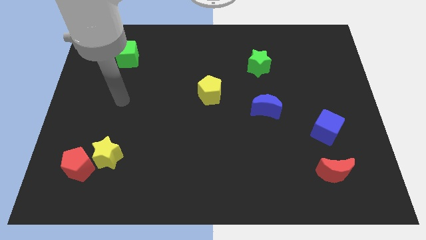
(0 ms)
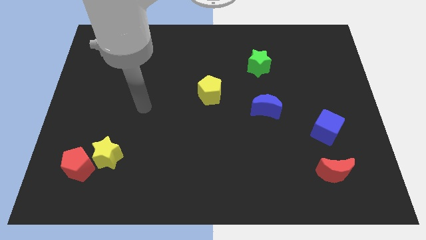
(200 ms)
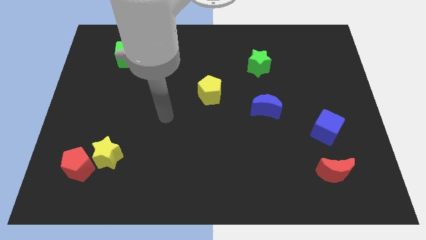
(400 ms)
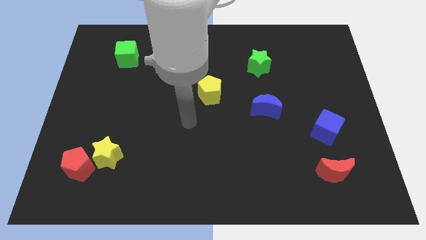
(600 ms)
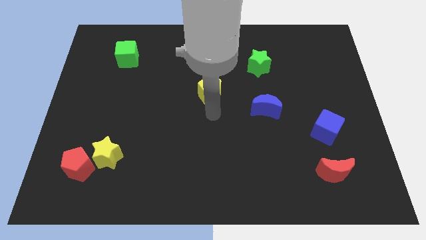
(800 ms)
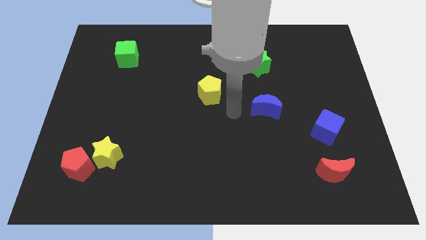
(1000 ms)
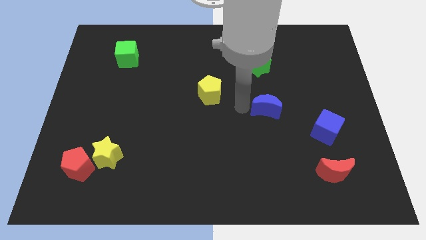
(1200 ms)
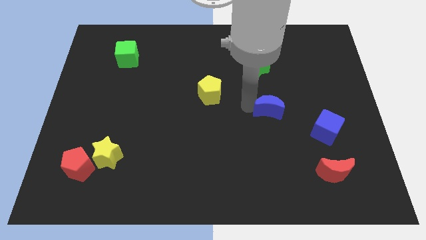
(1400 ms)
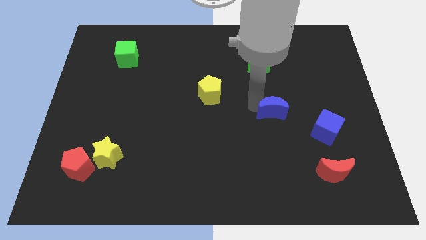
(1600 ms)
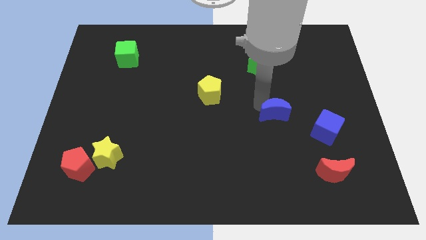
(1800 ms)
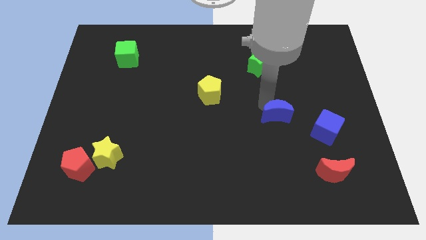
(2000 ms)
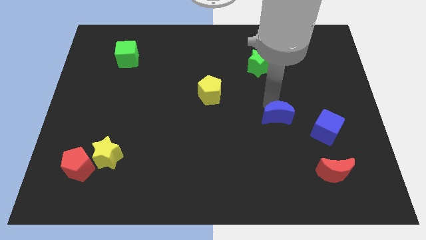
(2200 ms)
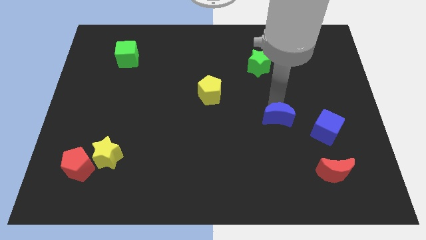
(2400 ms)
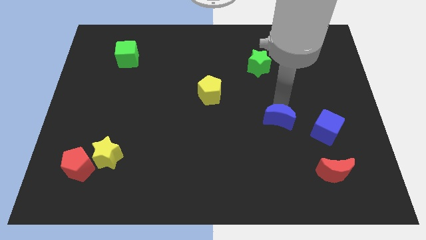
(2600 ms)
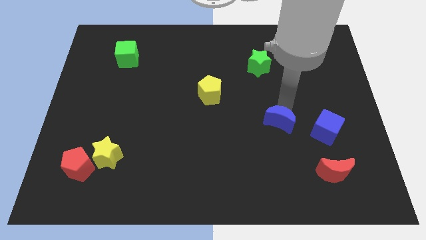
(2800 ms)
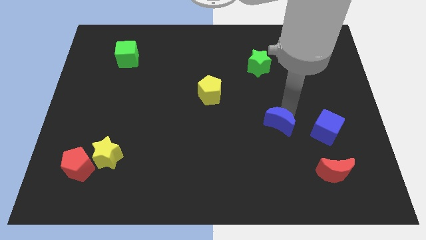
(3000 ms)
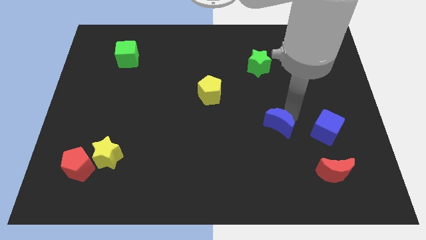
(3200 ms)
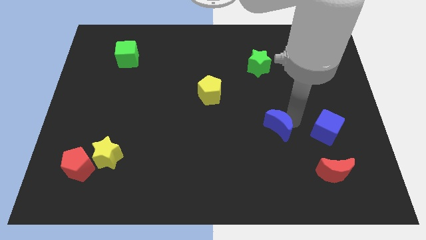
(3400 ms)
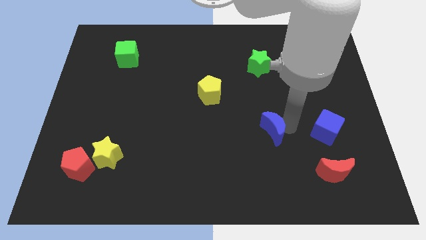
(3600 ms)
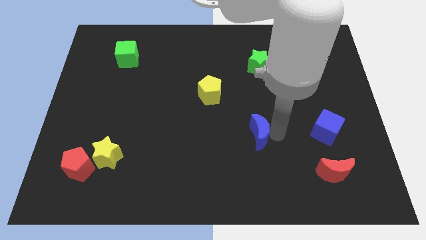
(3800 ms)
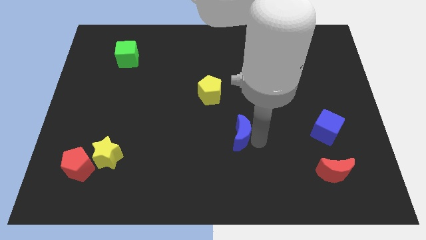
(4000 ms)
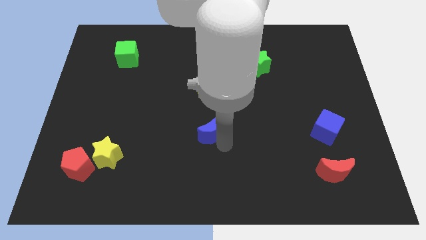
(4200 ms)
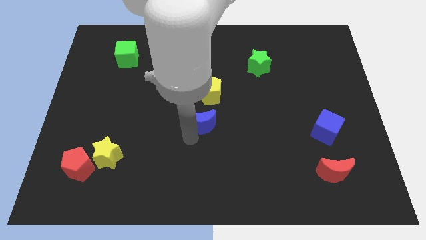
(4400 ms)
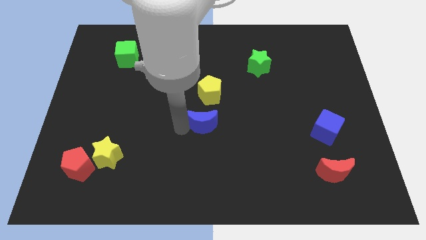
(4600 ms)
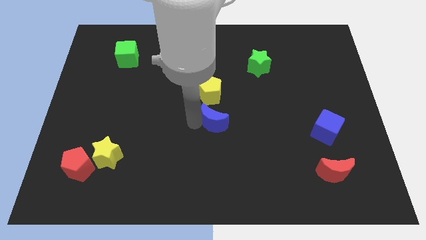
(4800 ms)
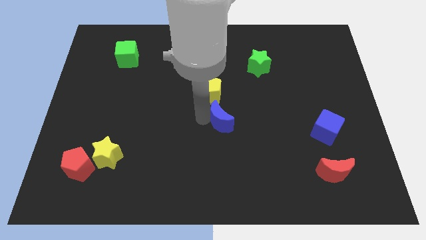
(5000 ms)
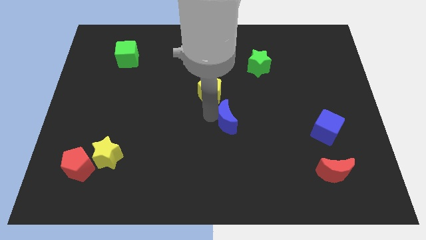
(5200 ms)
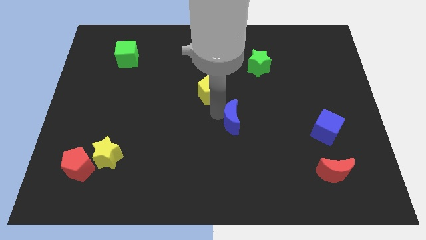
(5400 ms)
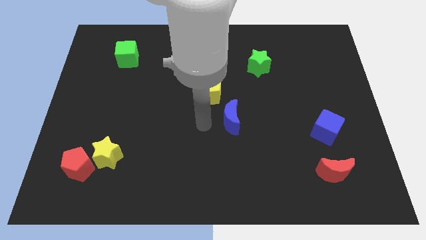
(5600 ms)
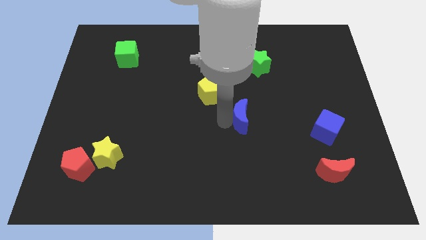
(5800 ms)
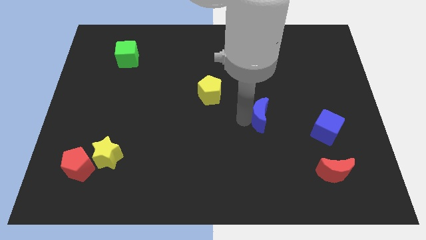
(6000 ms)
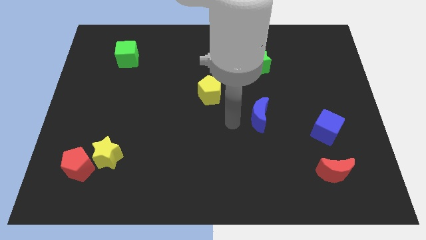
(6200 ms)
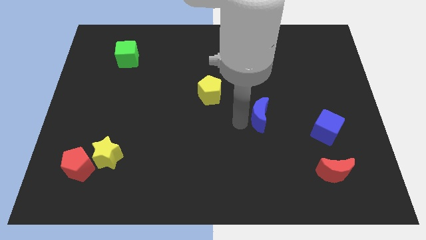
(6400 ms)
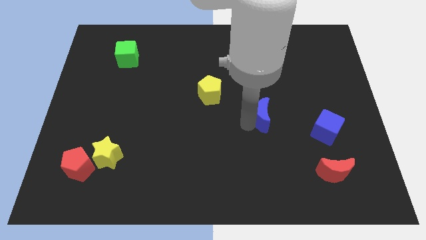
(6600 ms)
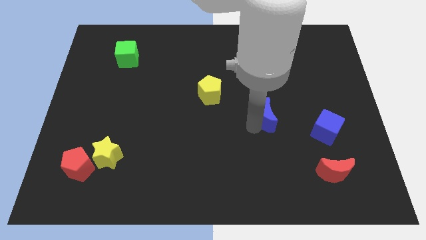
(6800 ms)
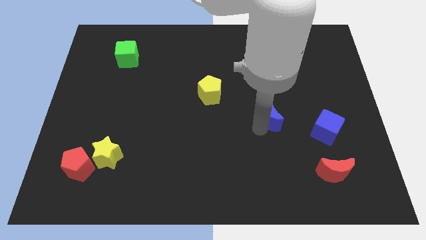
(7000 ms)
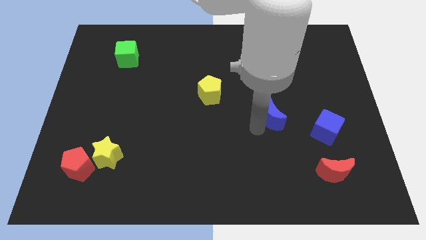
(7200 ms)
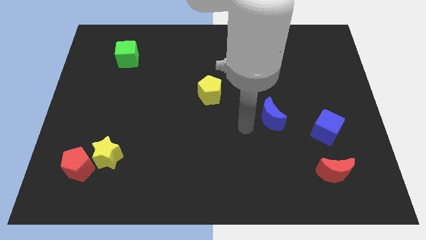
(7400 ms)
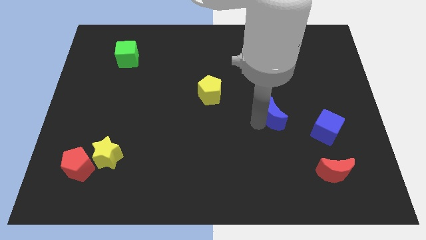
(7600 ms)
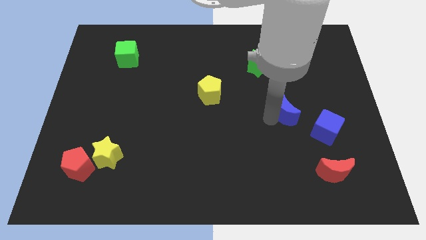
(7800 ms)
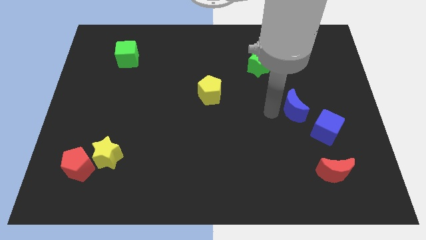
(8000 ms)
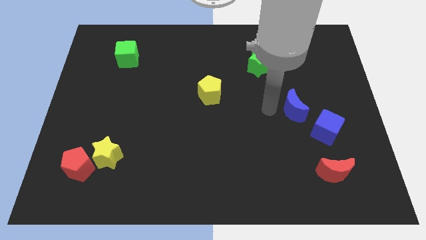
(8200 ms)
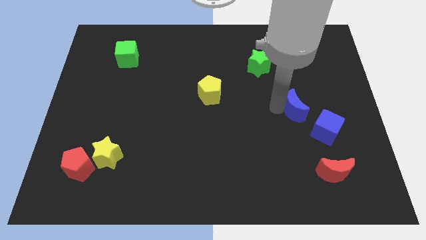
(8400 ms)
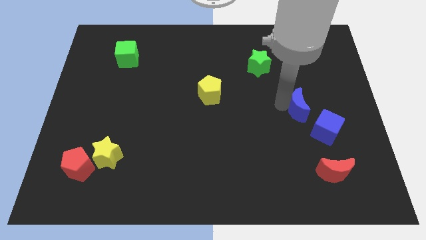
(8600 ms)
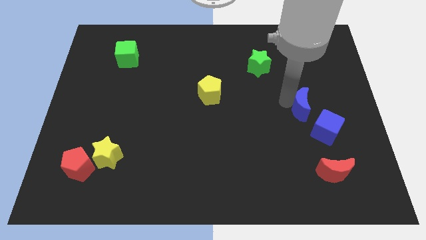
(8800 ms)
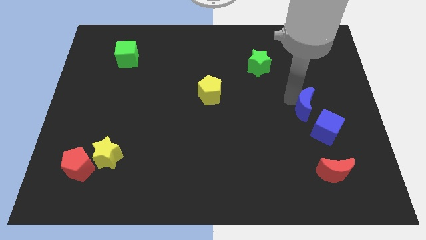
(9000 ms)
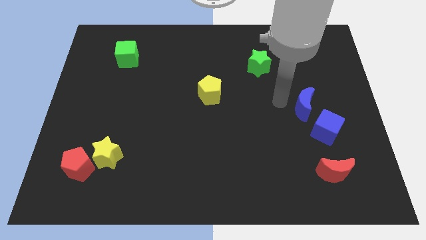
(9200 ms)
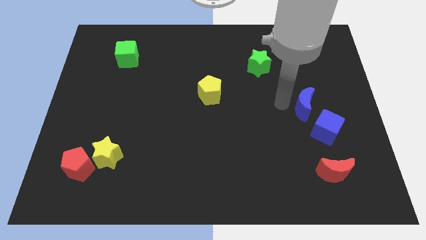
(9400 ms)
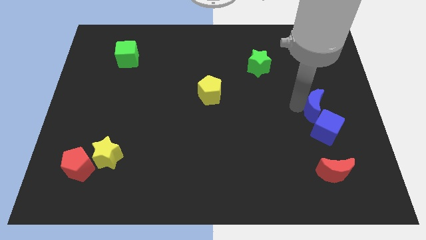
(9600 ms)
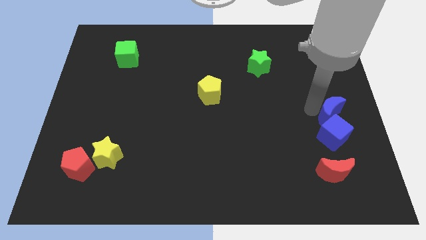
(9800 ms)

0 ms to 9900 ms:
move the blue moon to the right side of the board

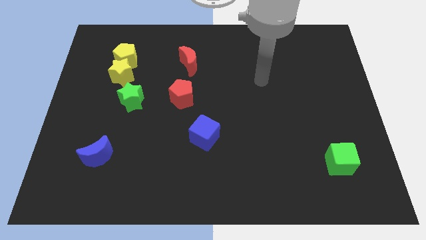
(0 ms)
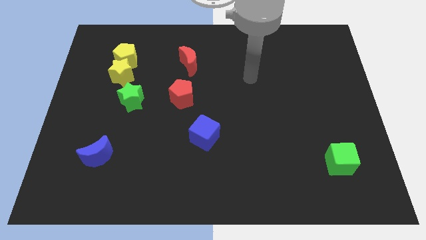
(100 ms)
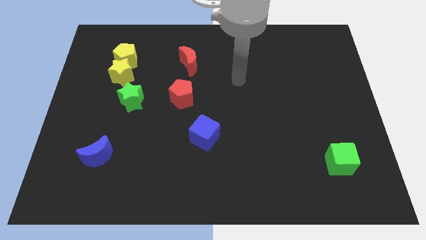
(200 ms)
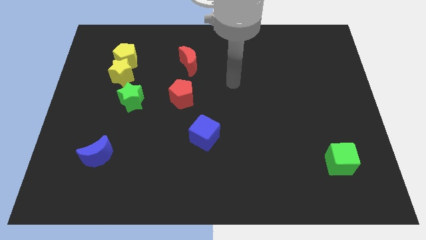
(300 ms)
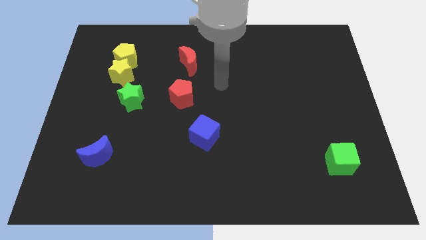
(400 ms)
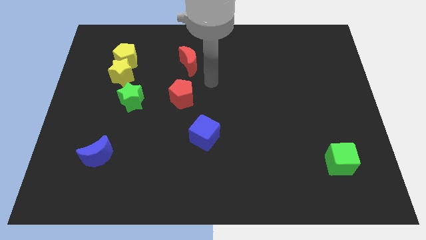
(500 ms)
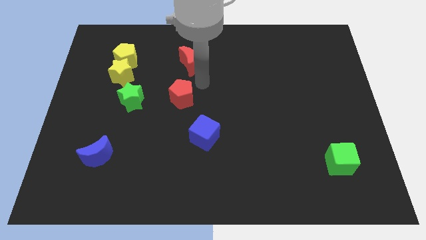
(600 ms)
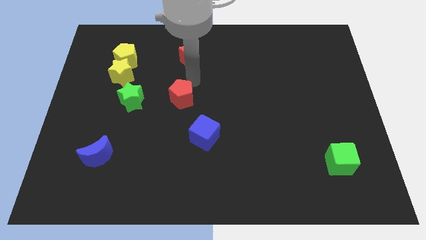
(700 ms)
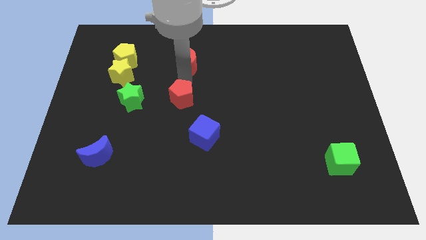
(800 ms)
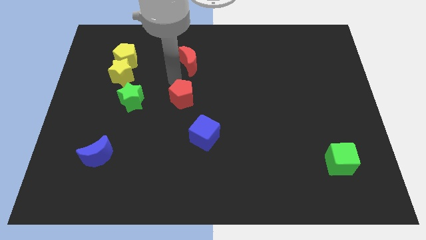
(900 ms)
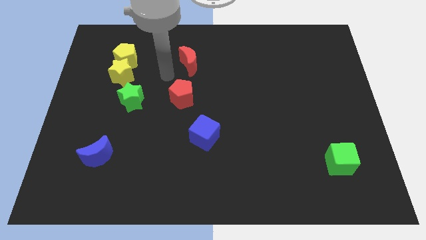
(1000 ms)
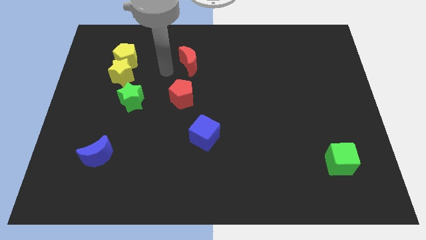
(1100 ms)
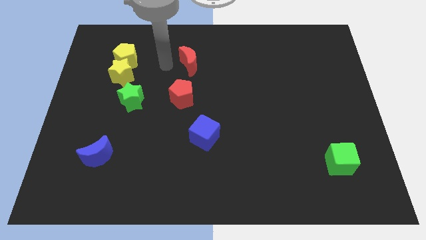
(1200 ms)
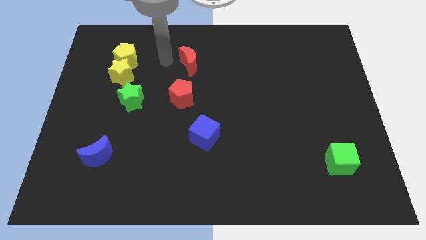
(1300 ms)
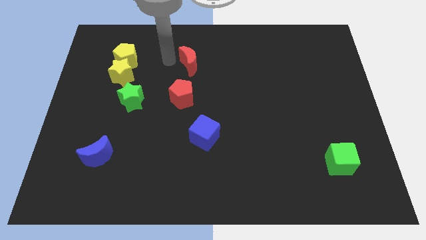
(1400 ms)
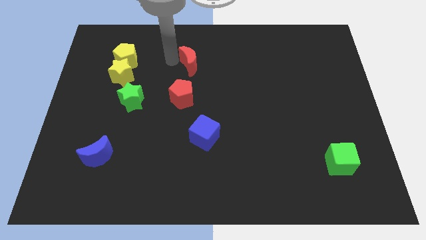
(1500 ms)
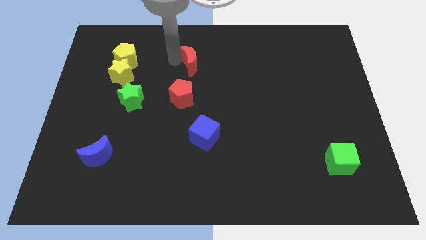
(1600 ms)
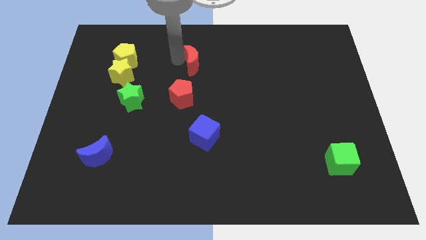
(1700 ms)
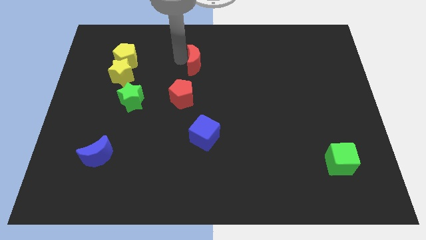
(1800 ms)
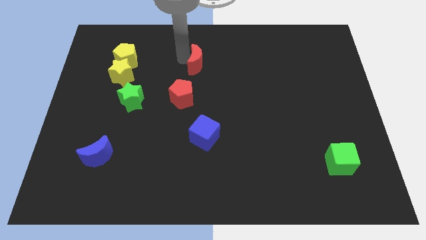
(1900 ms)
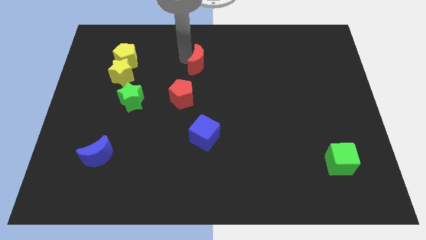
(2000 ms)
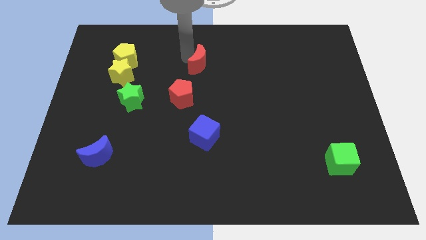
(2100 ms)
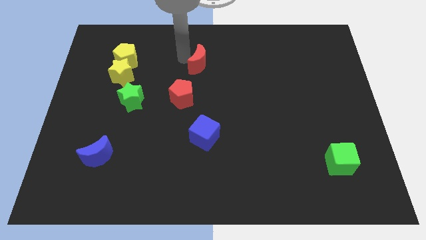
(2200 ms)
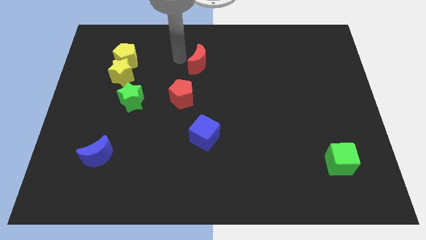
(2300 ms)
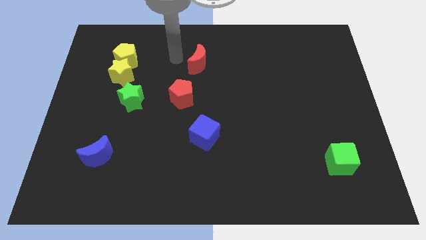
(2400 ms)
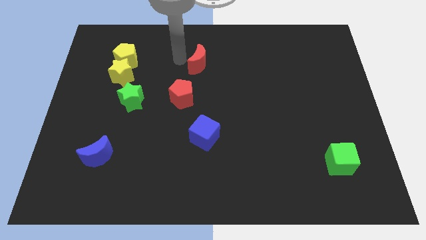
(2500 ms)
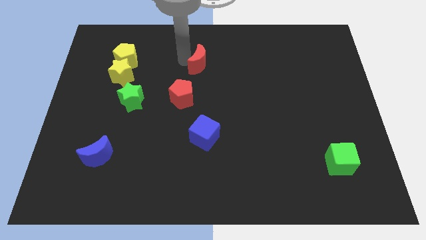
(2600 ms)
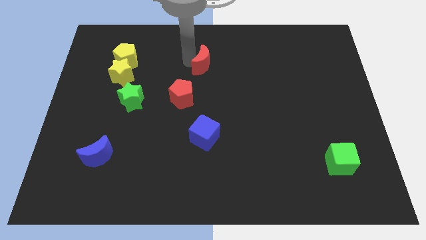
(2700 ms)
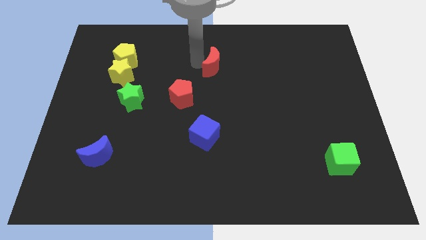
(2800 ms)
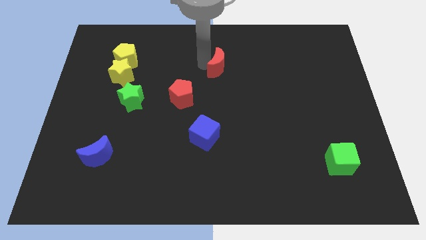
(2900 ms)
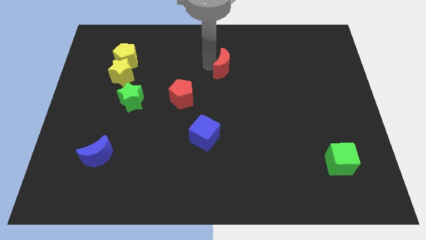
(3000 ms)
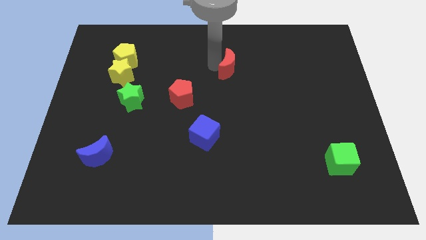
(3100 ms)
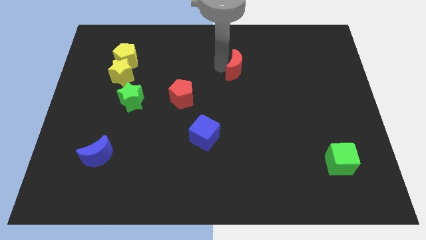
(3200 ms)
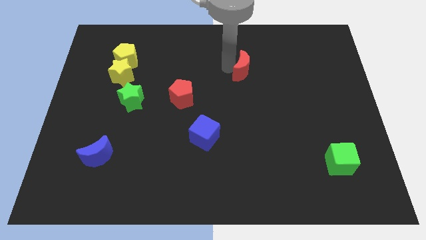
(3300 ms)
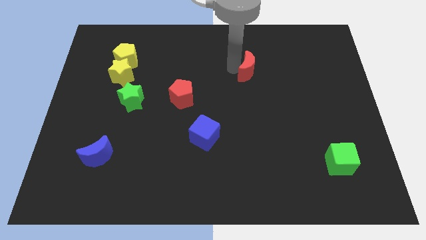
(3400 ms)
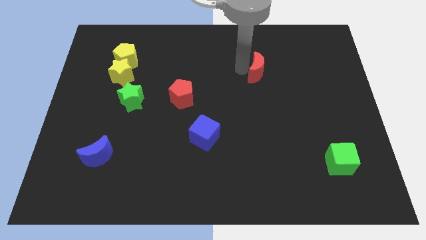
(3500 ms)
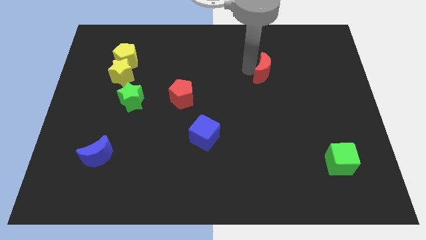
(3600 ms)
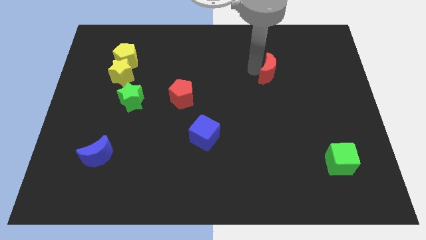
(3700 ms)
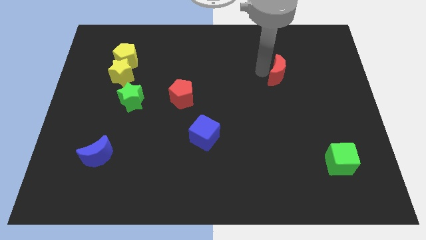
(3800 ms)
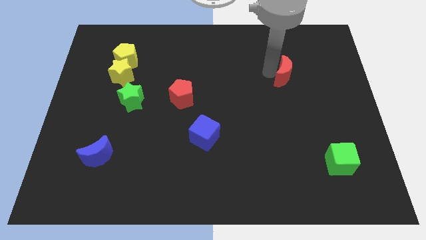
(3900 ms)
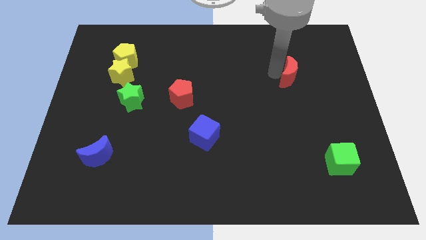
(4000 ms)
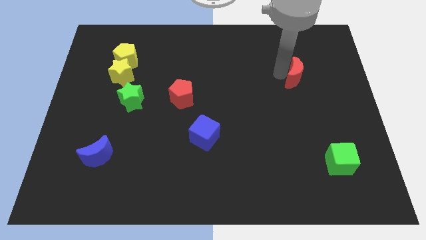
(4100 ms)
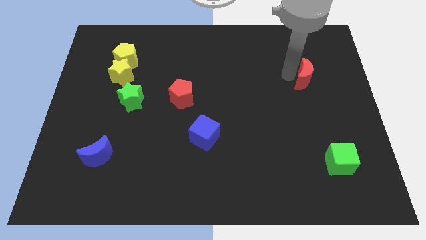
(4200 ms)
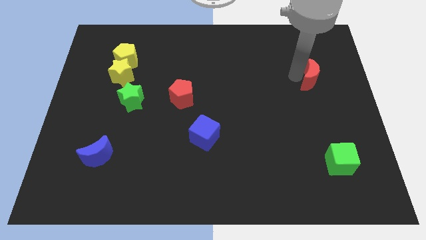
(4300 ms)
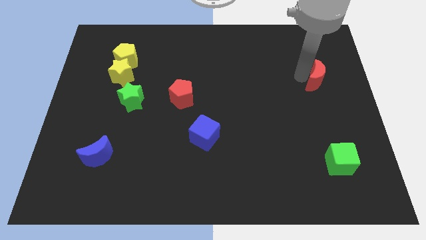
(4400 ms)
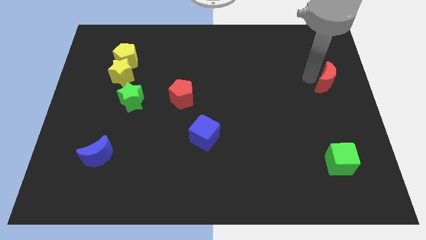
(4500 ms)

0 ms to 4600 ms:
slide the red moon to the center right
